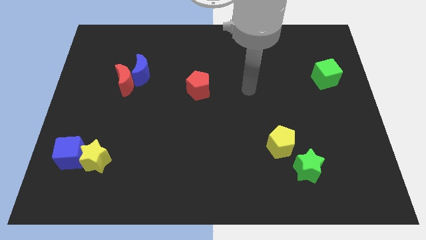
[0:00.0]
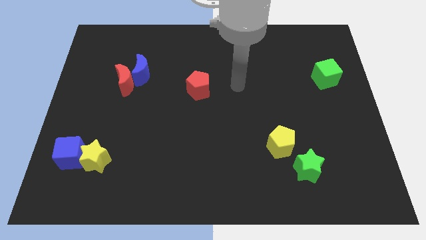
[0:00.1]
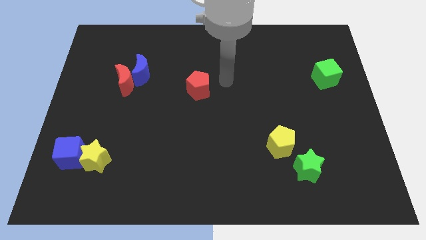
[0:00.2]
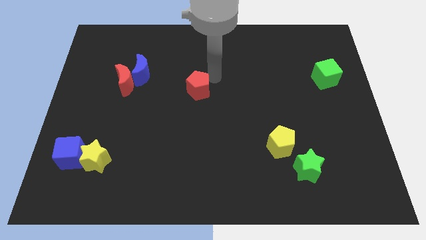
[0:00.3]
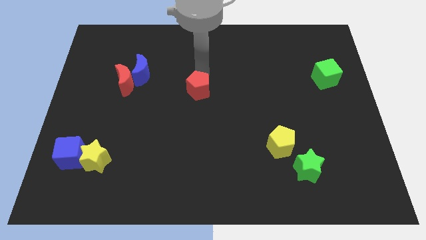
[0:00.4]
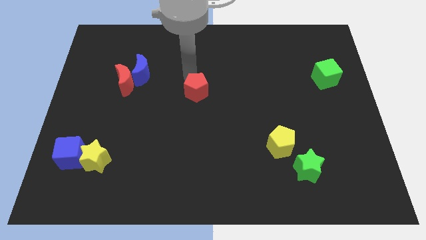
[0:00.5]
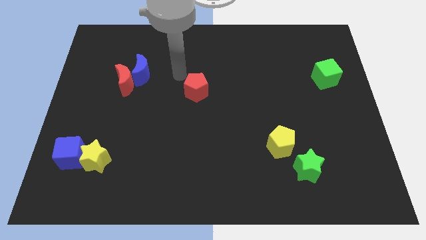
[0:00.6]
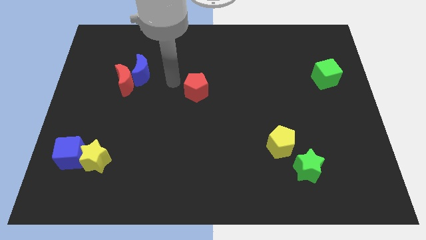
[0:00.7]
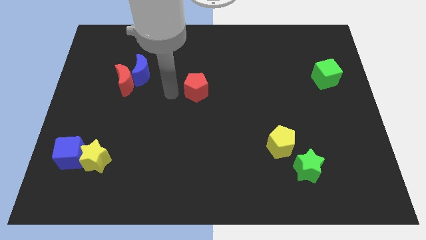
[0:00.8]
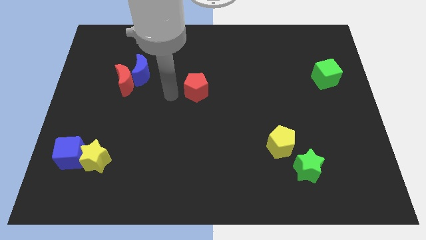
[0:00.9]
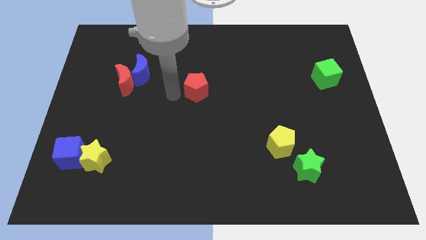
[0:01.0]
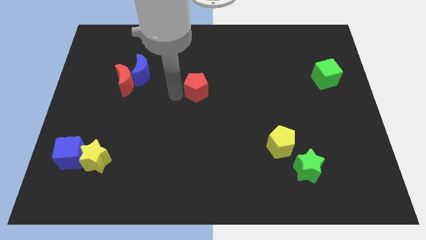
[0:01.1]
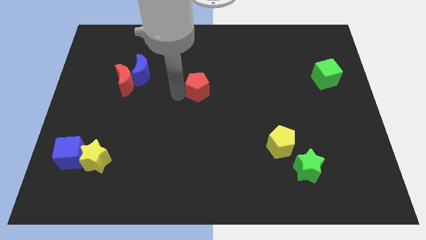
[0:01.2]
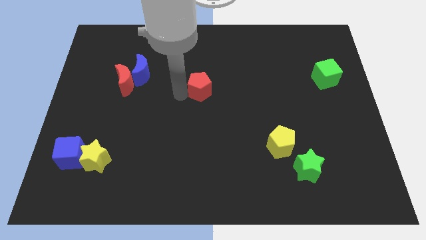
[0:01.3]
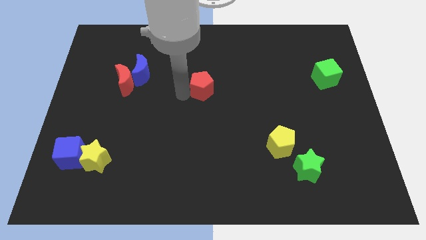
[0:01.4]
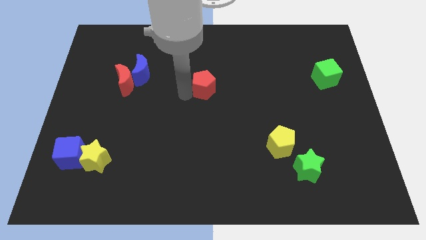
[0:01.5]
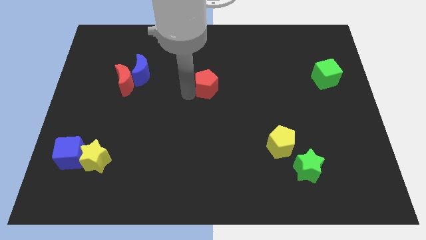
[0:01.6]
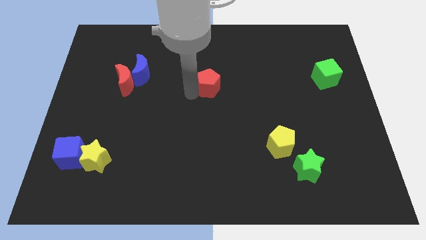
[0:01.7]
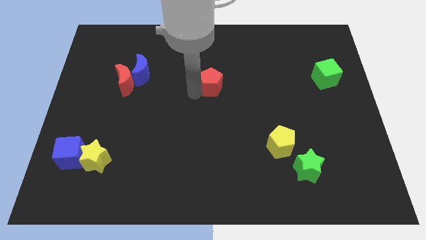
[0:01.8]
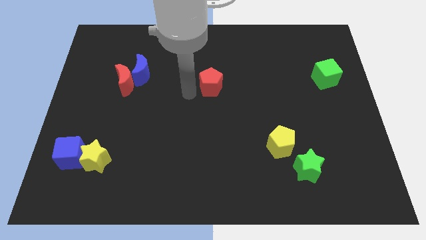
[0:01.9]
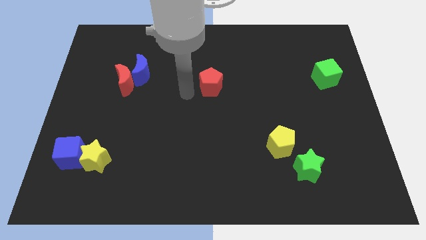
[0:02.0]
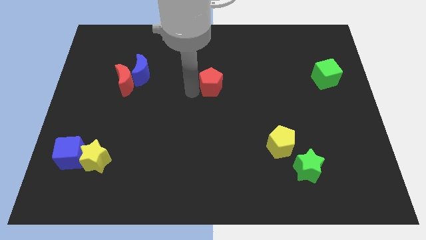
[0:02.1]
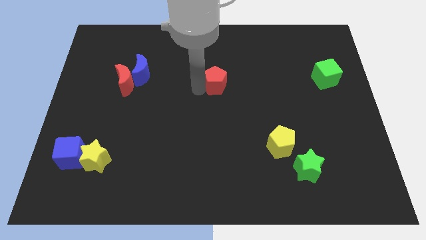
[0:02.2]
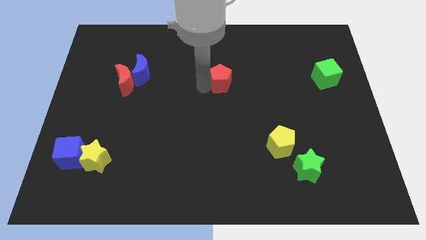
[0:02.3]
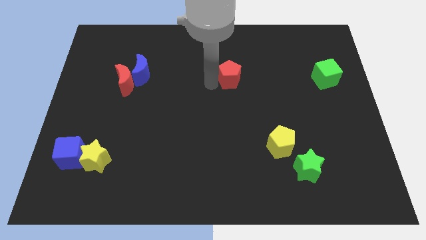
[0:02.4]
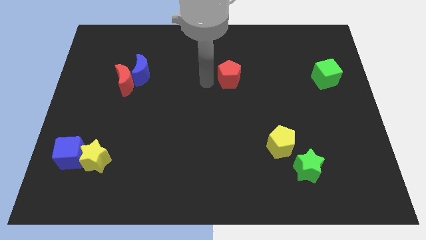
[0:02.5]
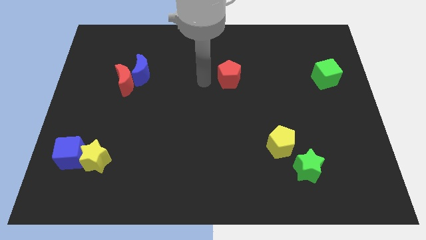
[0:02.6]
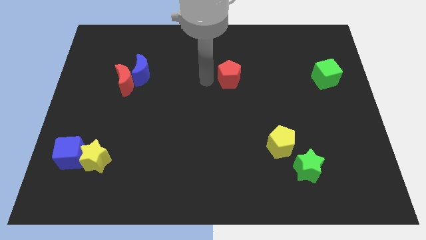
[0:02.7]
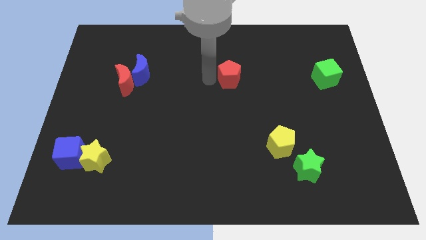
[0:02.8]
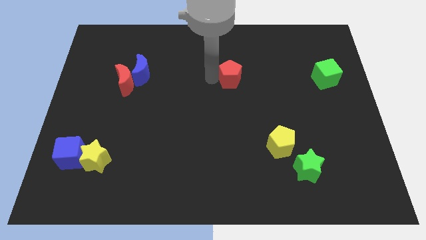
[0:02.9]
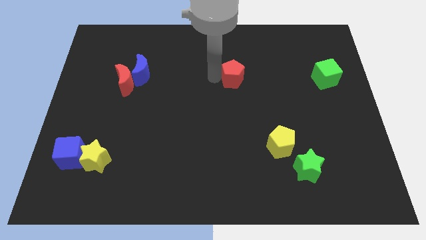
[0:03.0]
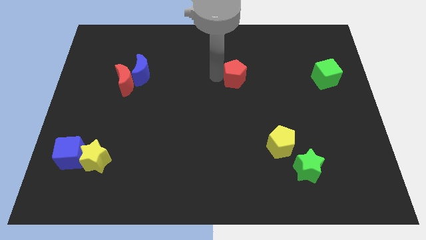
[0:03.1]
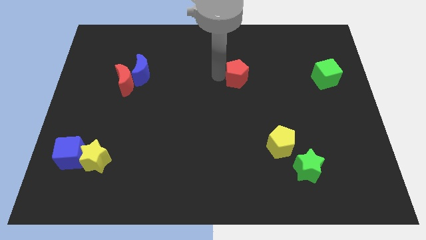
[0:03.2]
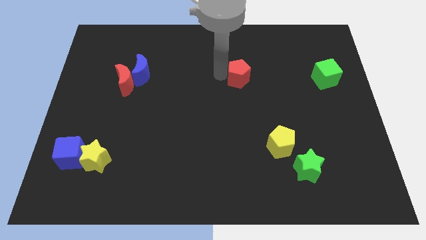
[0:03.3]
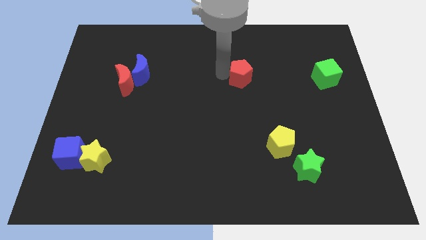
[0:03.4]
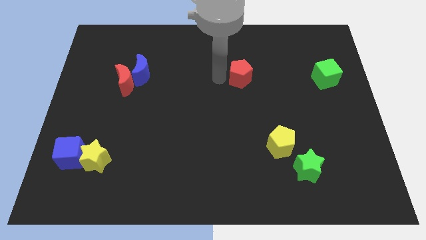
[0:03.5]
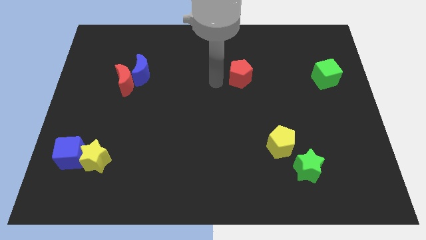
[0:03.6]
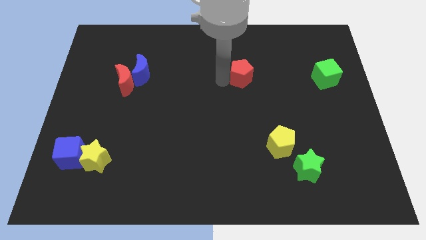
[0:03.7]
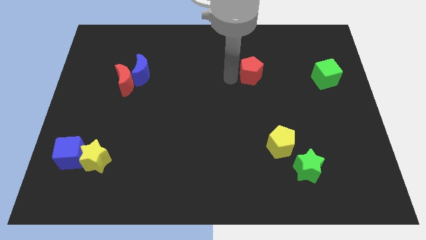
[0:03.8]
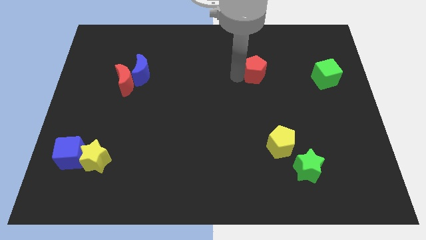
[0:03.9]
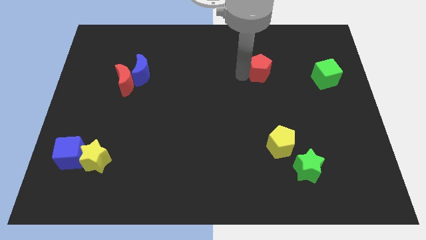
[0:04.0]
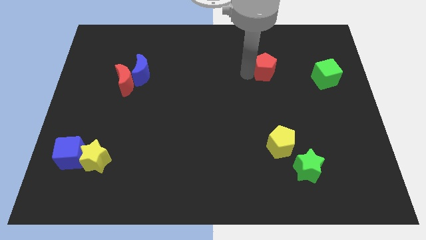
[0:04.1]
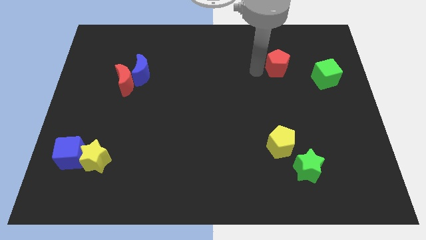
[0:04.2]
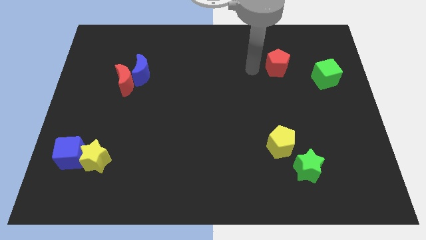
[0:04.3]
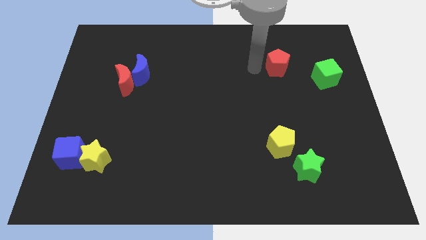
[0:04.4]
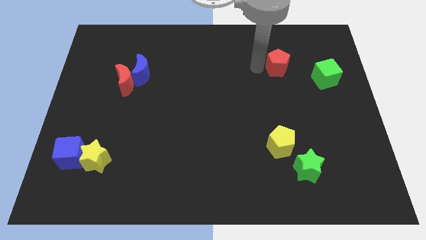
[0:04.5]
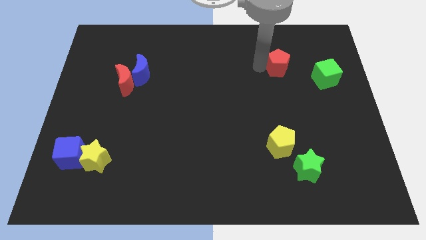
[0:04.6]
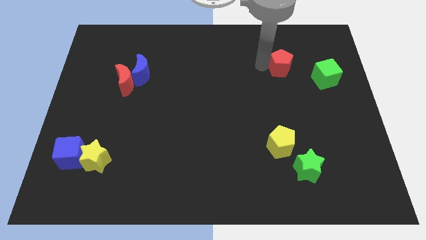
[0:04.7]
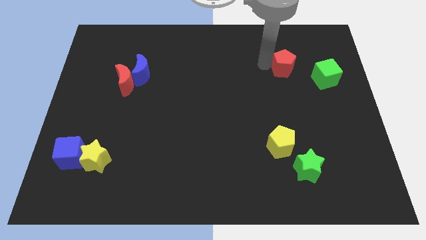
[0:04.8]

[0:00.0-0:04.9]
slide the red pentagon to the top left of the green cube

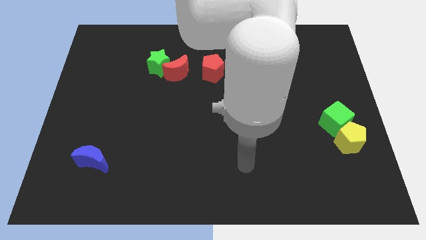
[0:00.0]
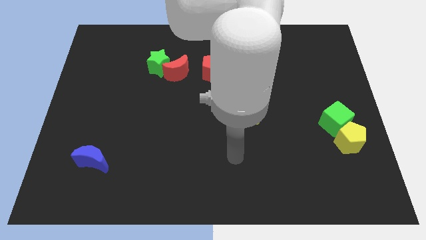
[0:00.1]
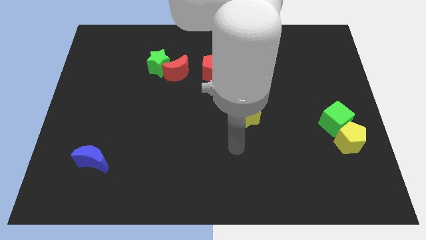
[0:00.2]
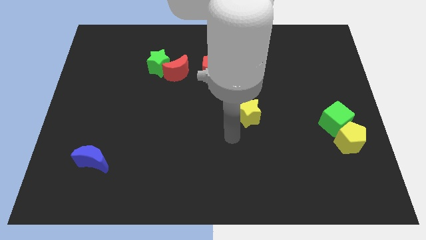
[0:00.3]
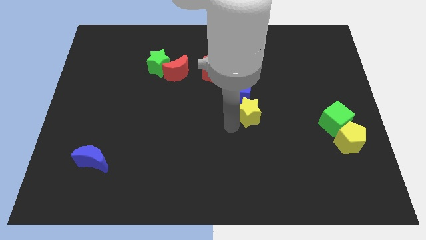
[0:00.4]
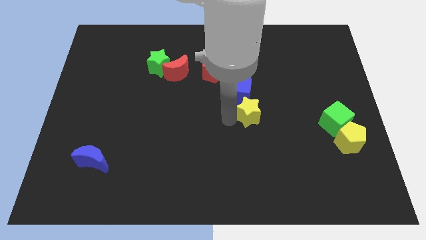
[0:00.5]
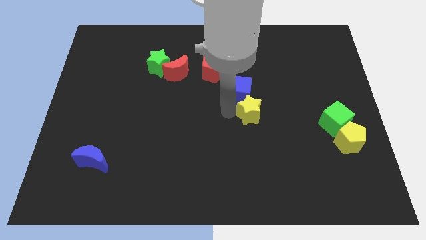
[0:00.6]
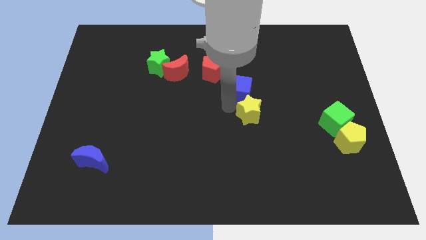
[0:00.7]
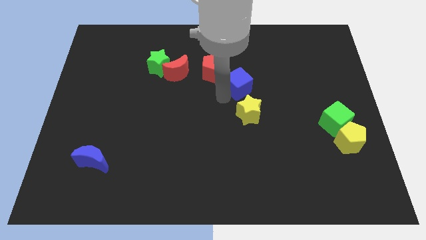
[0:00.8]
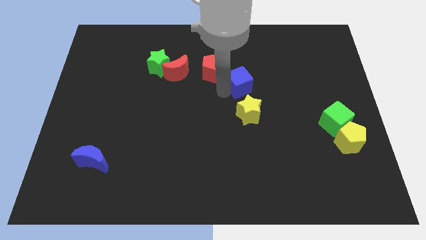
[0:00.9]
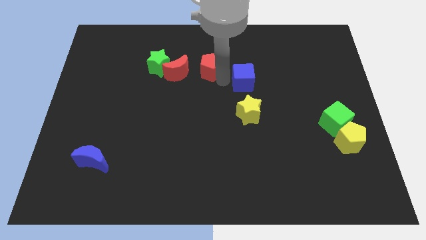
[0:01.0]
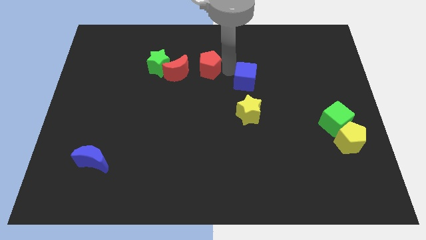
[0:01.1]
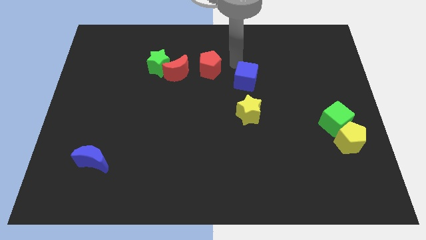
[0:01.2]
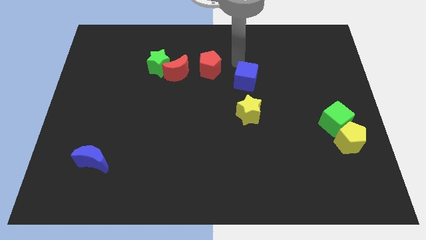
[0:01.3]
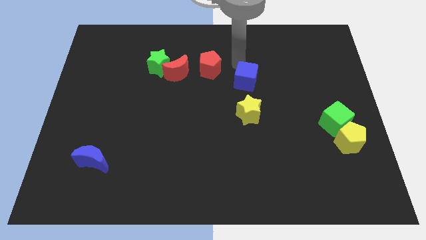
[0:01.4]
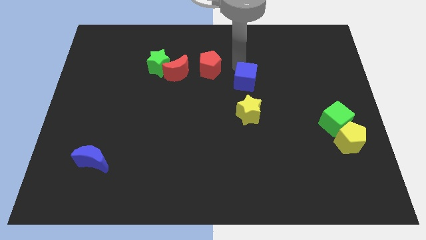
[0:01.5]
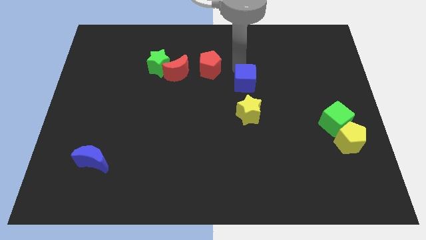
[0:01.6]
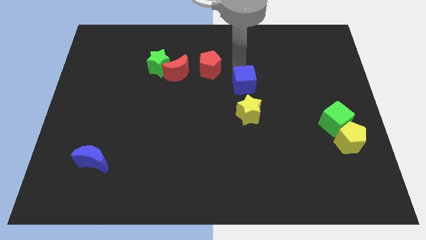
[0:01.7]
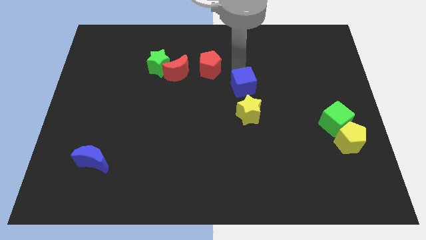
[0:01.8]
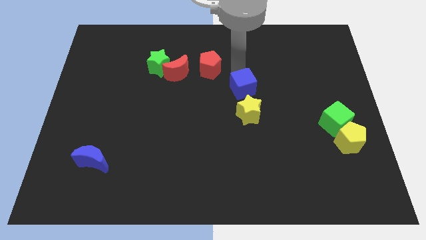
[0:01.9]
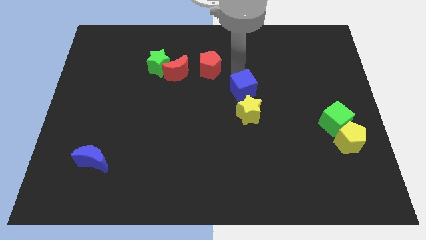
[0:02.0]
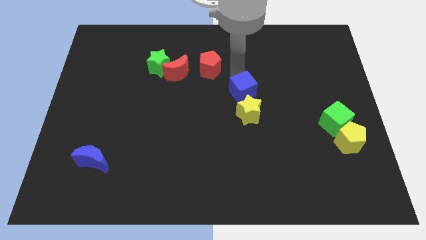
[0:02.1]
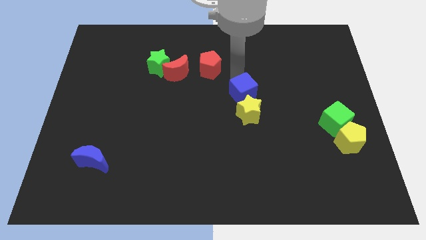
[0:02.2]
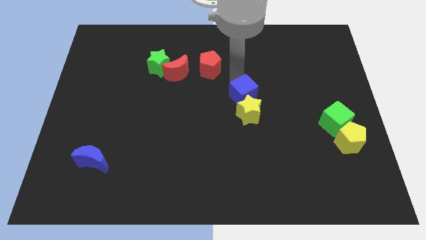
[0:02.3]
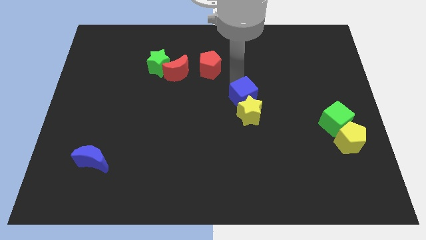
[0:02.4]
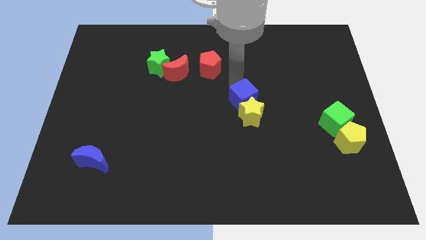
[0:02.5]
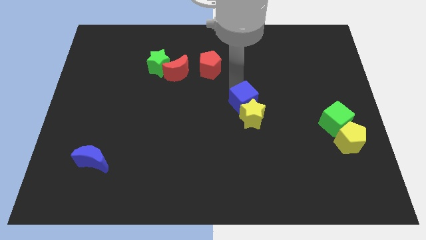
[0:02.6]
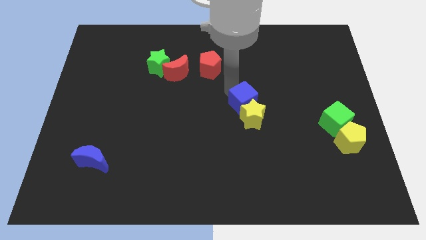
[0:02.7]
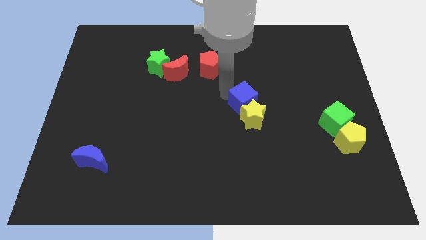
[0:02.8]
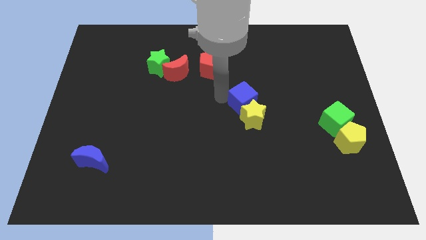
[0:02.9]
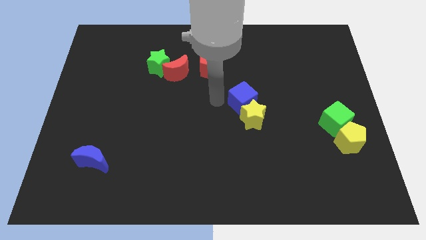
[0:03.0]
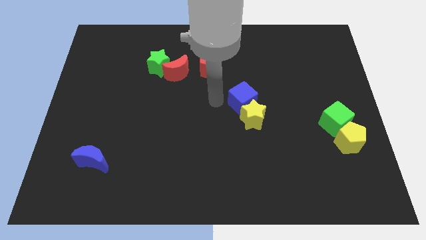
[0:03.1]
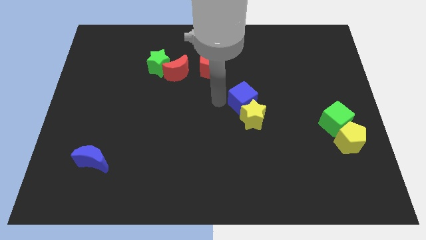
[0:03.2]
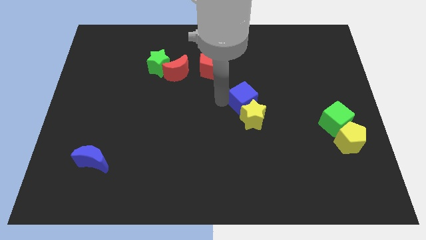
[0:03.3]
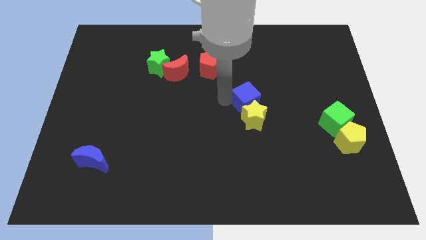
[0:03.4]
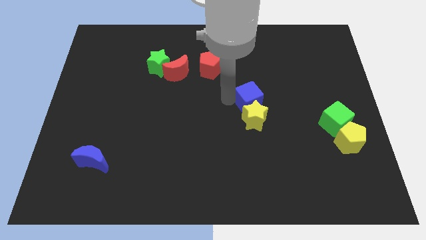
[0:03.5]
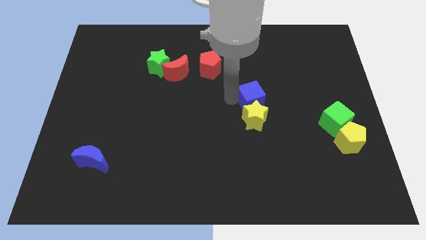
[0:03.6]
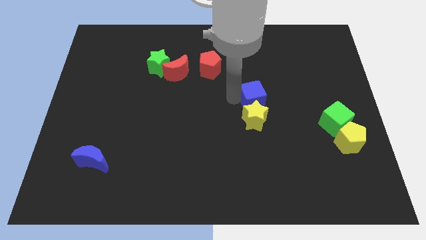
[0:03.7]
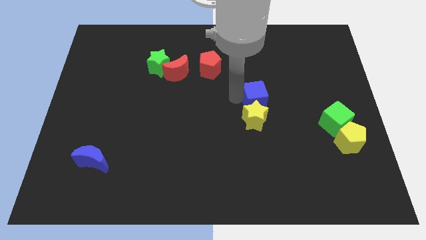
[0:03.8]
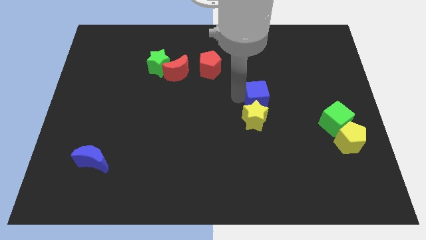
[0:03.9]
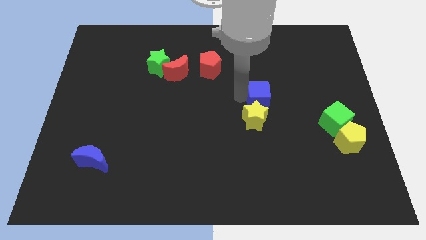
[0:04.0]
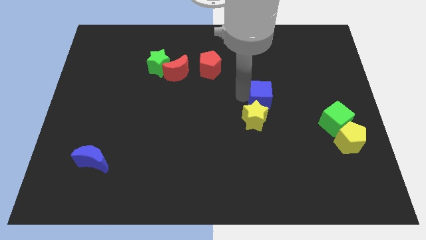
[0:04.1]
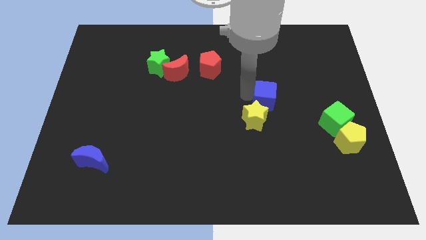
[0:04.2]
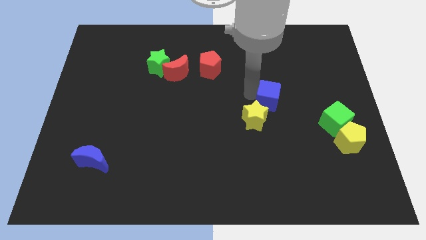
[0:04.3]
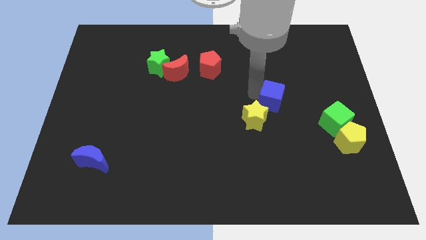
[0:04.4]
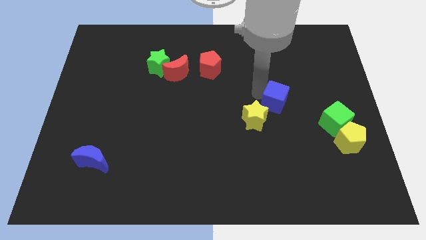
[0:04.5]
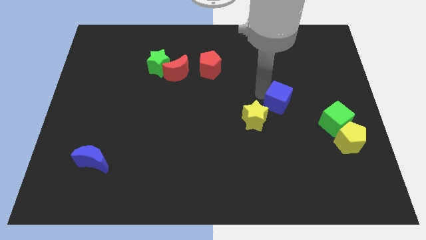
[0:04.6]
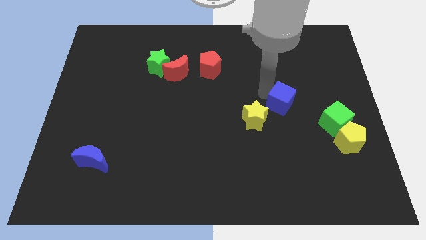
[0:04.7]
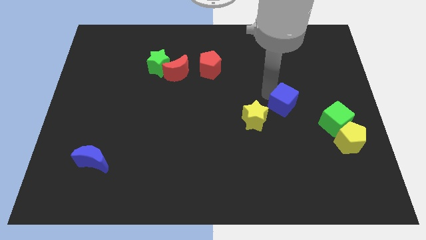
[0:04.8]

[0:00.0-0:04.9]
move the blue cube right of the yellow star
